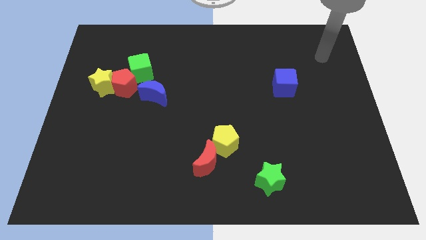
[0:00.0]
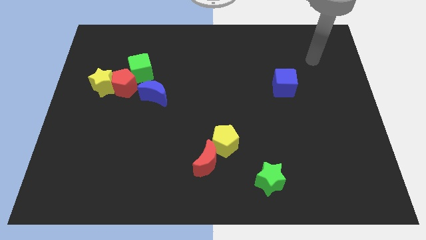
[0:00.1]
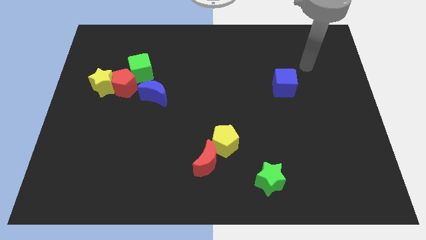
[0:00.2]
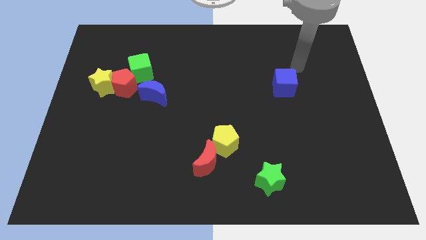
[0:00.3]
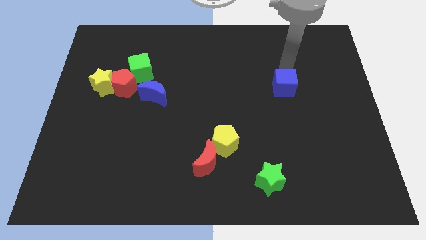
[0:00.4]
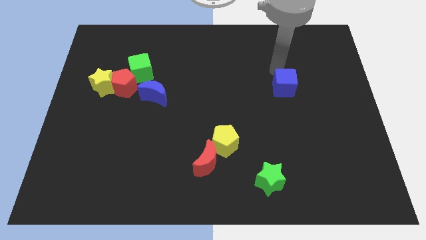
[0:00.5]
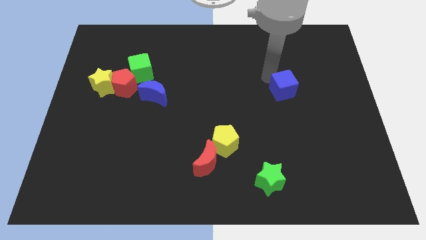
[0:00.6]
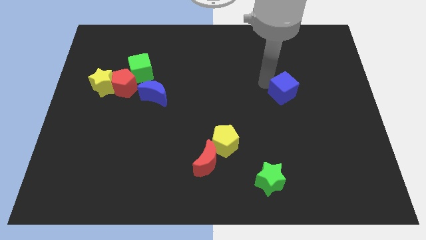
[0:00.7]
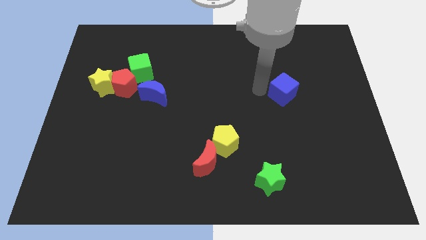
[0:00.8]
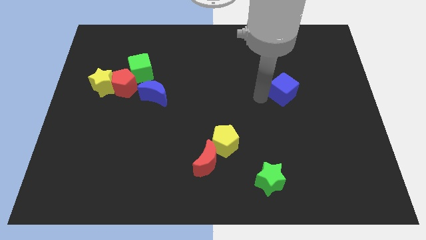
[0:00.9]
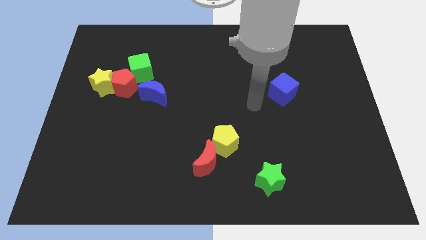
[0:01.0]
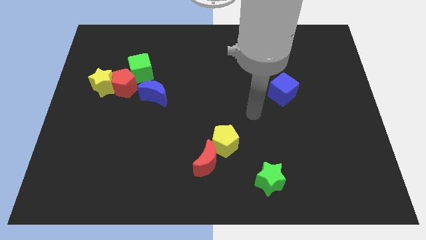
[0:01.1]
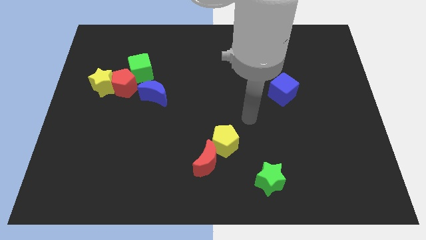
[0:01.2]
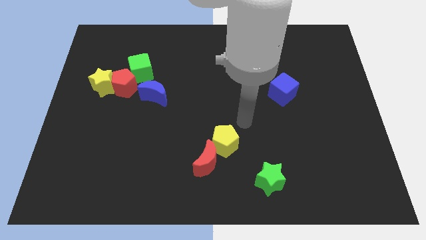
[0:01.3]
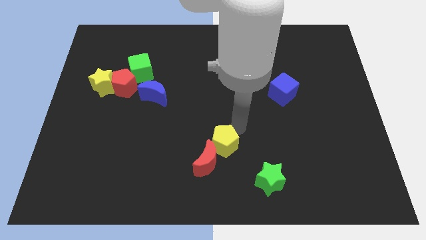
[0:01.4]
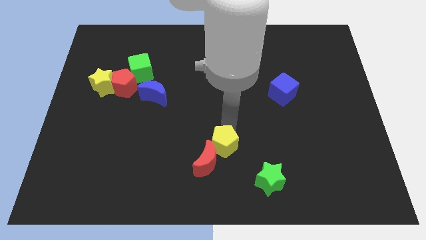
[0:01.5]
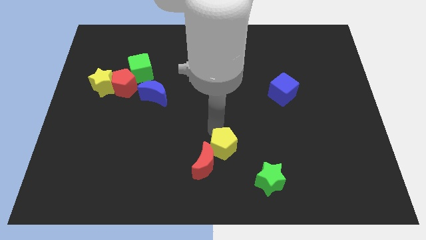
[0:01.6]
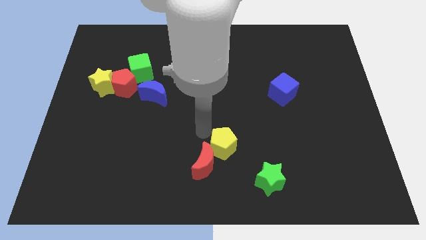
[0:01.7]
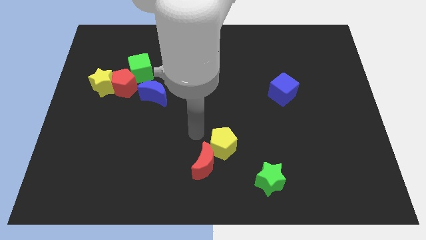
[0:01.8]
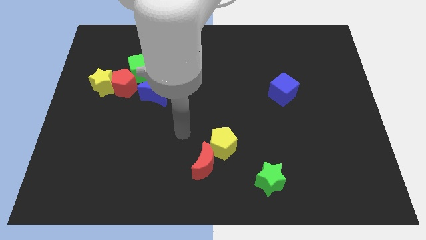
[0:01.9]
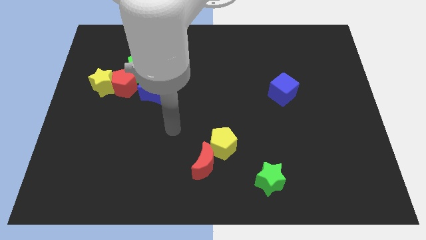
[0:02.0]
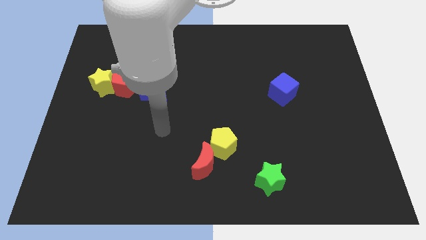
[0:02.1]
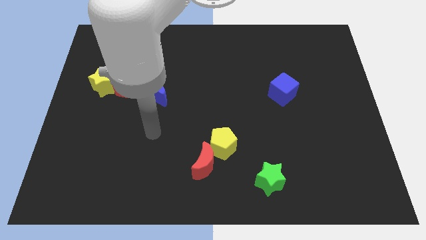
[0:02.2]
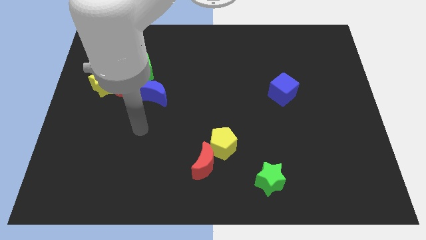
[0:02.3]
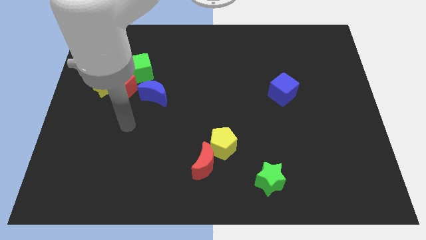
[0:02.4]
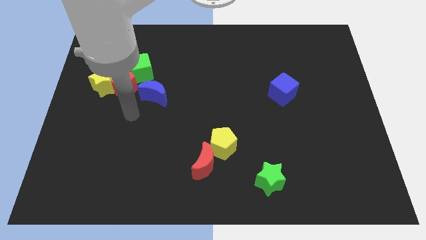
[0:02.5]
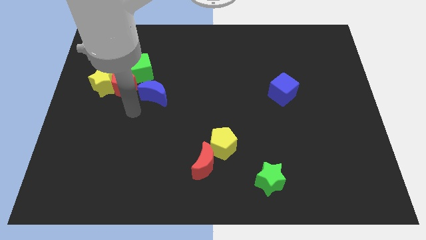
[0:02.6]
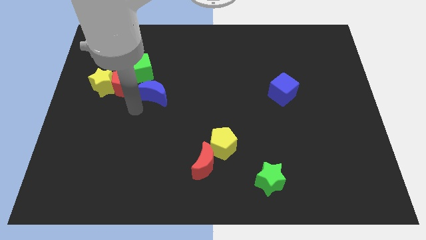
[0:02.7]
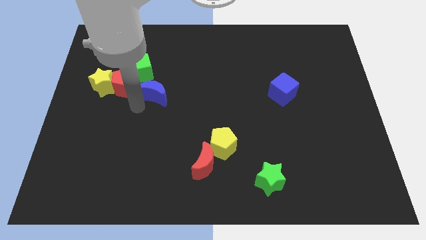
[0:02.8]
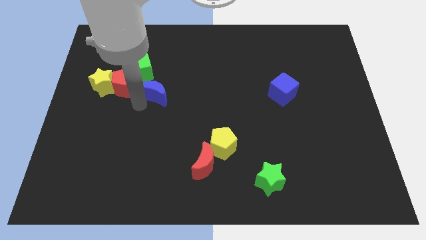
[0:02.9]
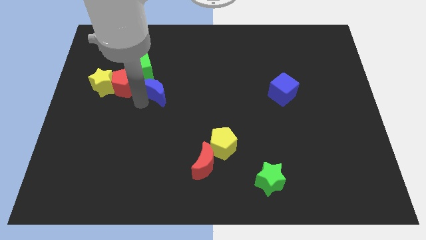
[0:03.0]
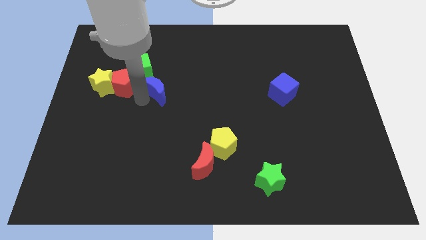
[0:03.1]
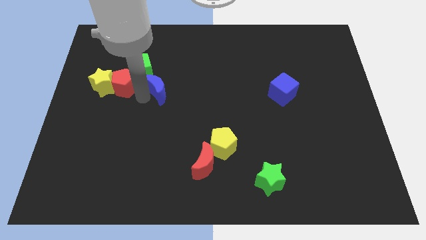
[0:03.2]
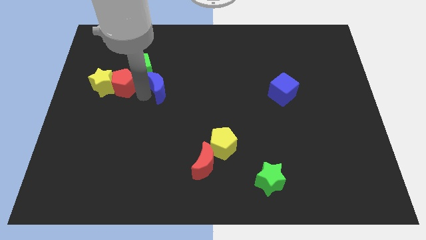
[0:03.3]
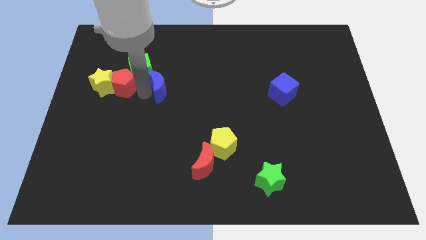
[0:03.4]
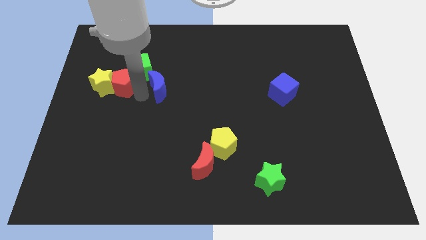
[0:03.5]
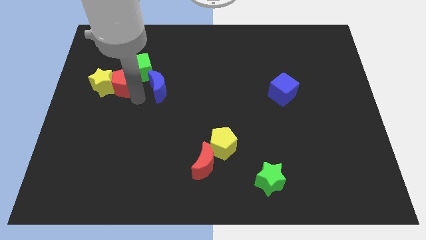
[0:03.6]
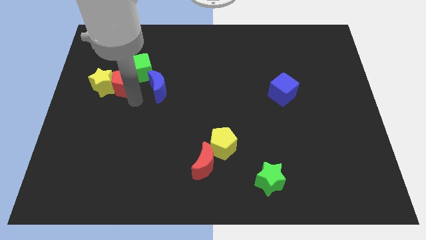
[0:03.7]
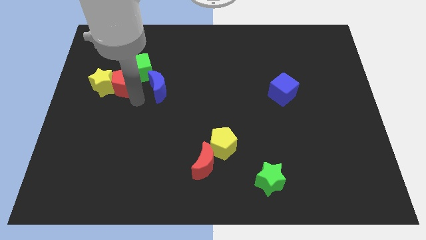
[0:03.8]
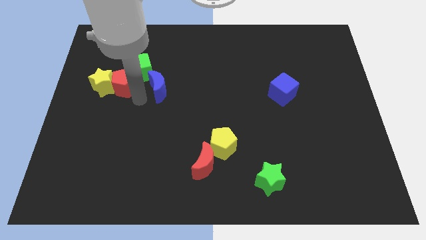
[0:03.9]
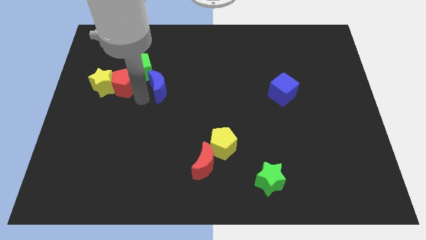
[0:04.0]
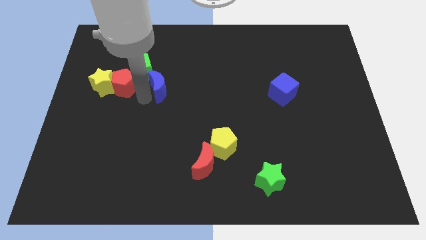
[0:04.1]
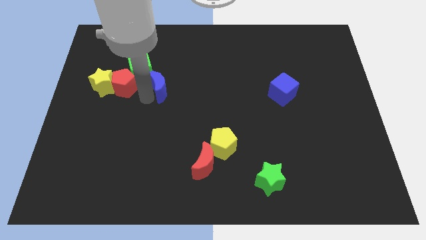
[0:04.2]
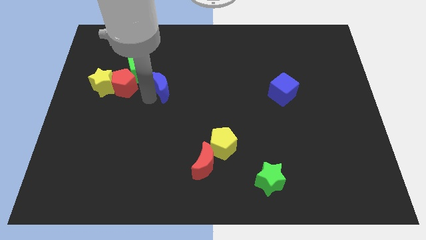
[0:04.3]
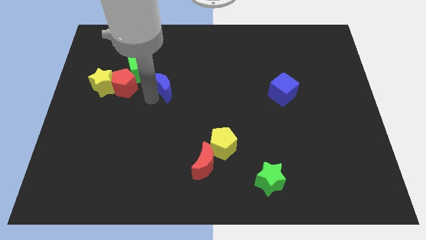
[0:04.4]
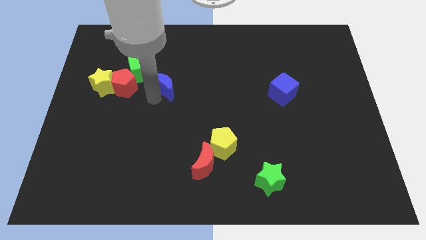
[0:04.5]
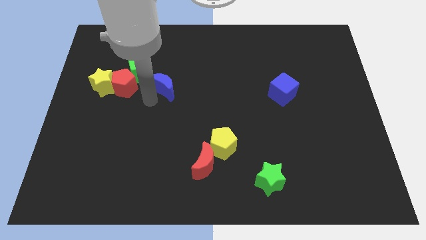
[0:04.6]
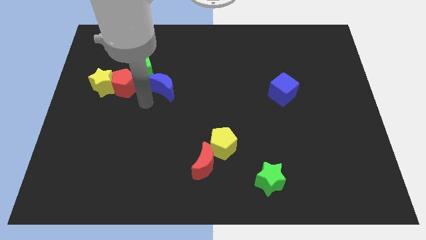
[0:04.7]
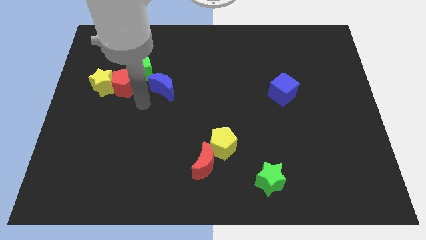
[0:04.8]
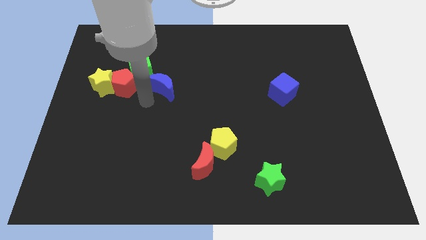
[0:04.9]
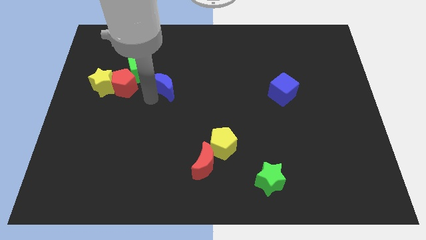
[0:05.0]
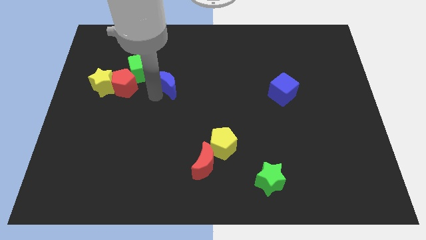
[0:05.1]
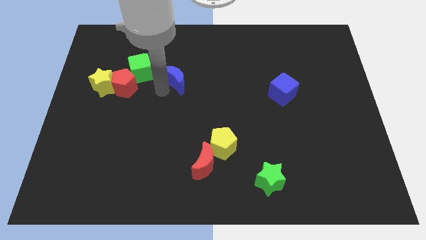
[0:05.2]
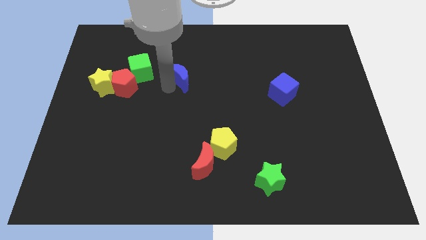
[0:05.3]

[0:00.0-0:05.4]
slightly push the blue moon upwards and to the right

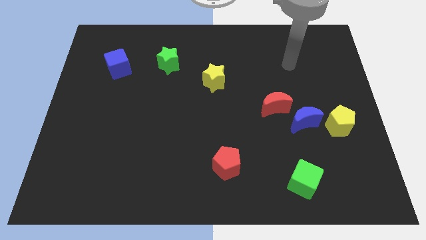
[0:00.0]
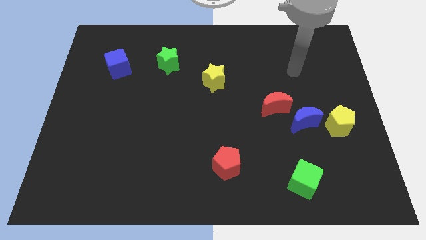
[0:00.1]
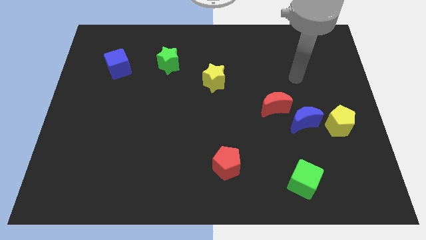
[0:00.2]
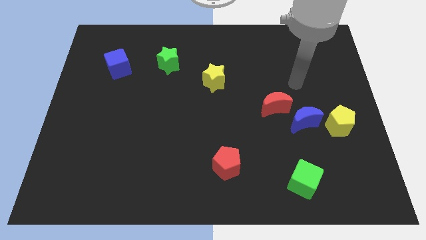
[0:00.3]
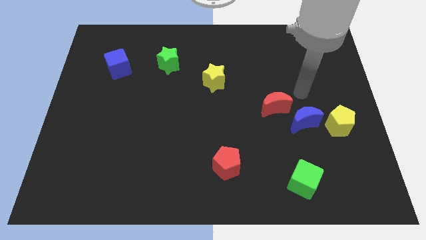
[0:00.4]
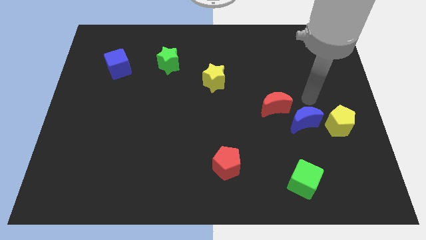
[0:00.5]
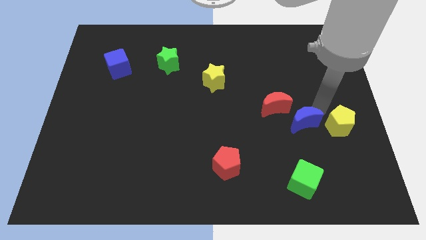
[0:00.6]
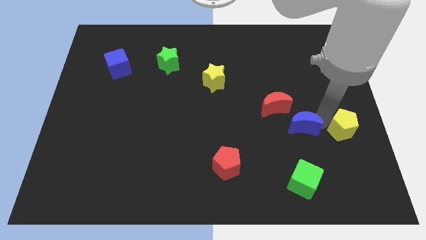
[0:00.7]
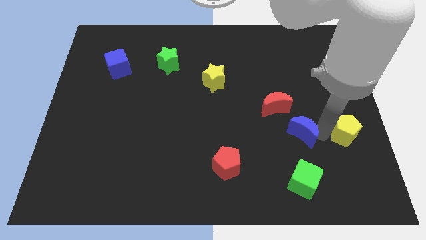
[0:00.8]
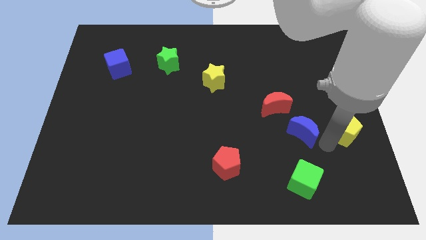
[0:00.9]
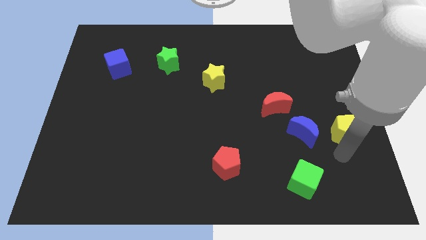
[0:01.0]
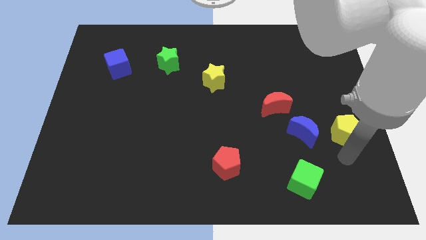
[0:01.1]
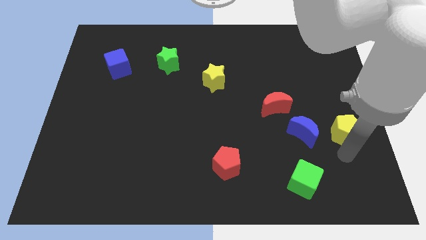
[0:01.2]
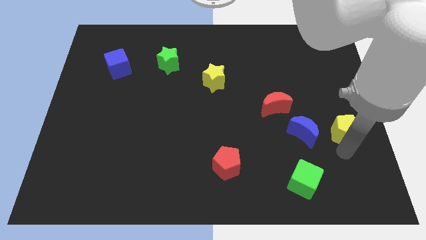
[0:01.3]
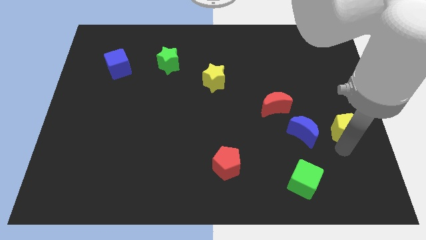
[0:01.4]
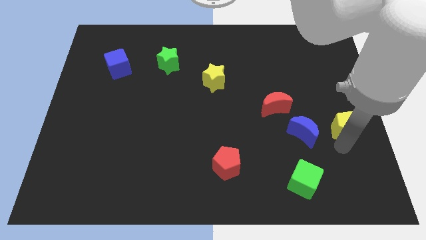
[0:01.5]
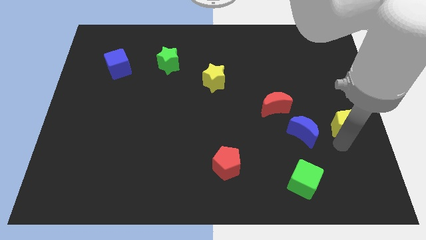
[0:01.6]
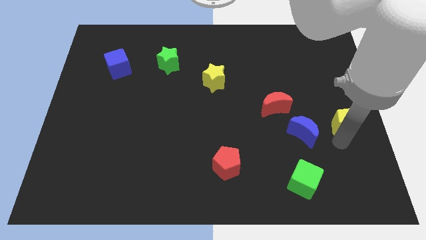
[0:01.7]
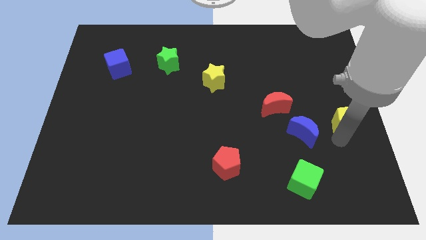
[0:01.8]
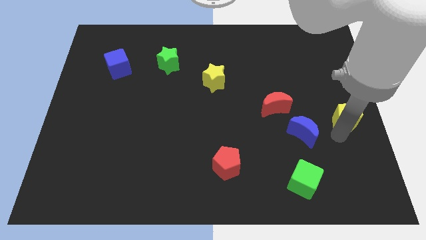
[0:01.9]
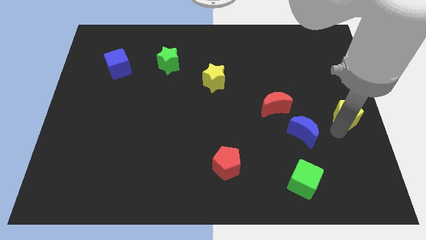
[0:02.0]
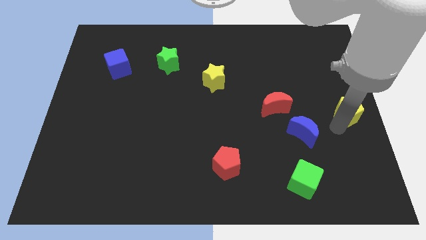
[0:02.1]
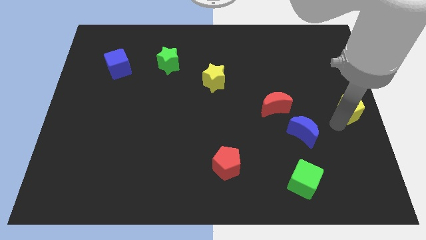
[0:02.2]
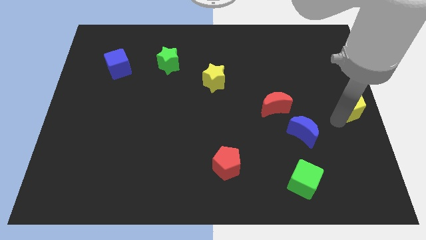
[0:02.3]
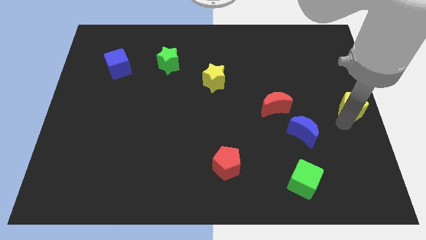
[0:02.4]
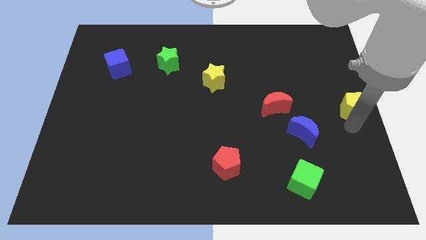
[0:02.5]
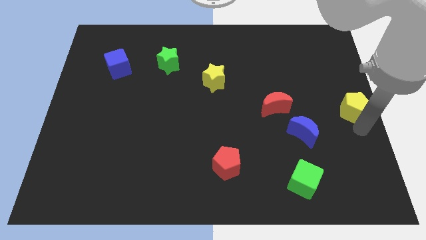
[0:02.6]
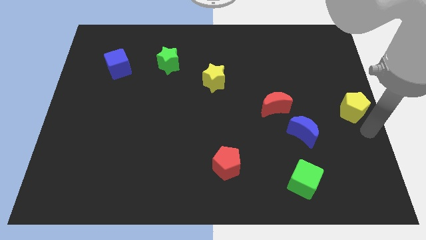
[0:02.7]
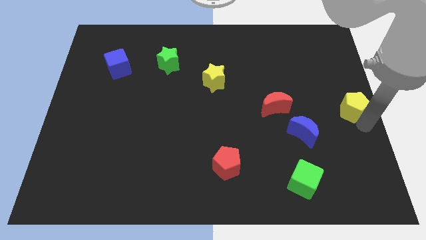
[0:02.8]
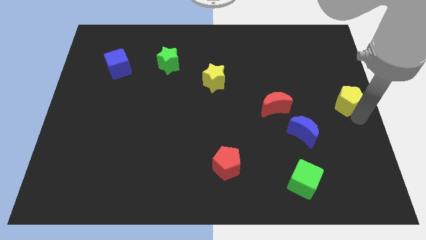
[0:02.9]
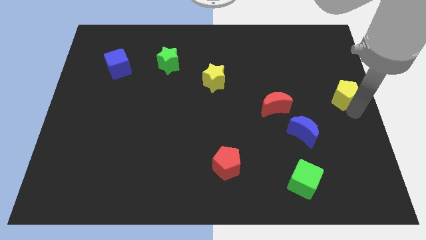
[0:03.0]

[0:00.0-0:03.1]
slide the yellow pentagon upwards a little
